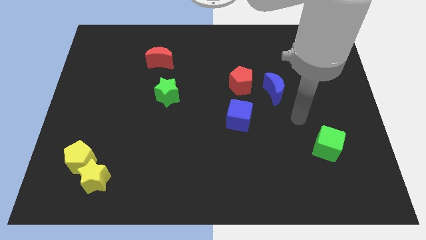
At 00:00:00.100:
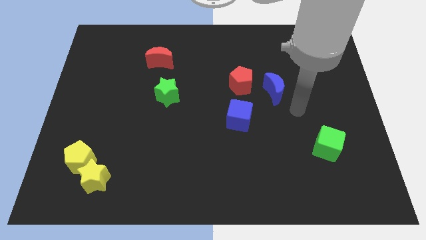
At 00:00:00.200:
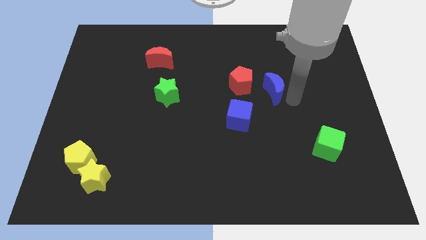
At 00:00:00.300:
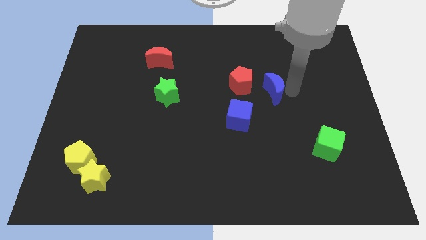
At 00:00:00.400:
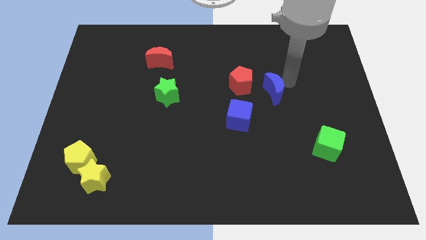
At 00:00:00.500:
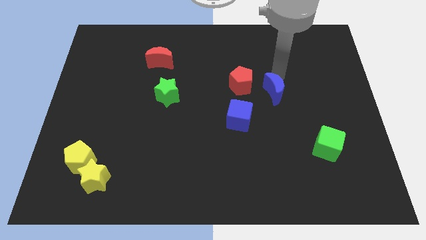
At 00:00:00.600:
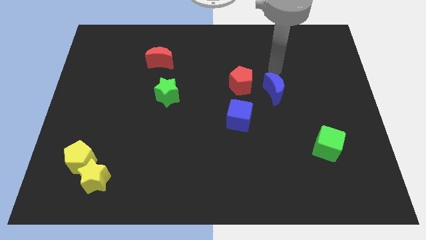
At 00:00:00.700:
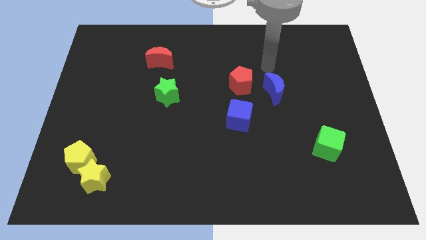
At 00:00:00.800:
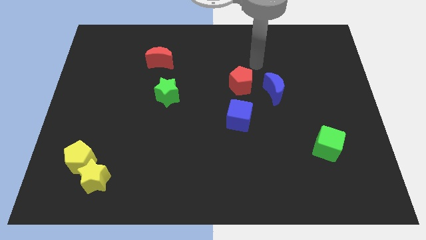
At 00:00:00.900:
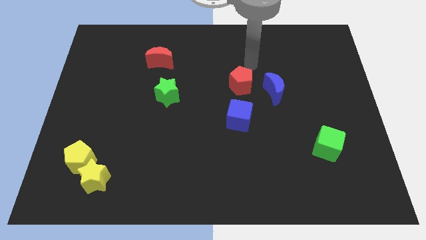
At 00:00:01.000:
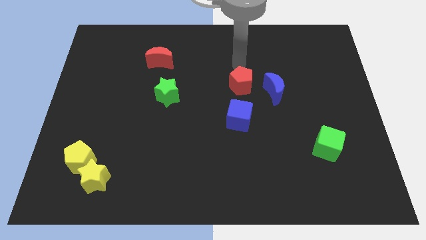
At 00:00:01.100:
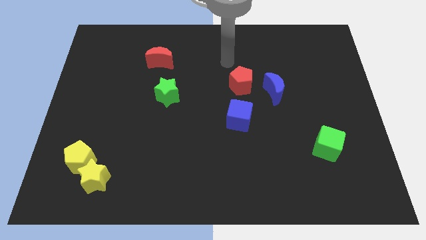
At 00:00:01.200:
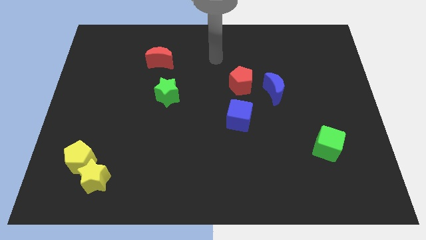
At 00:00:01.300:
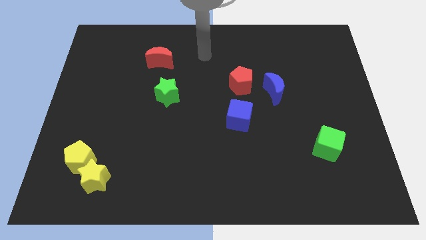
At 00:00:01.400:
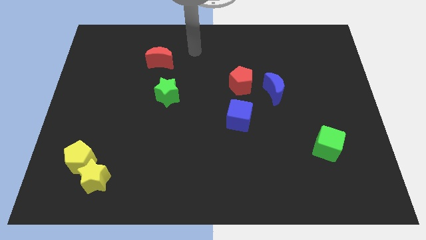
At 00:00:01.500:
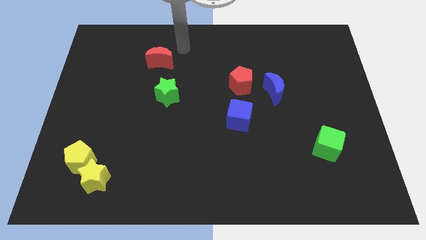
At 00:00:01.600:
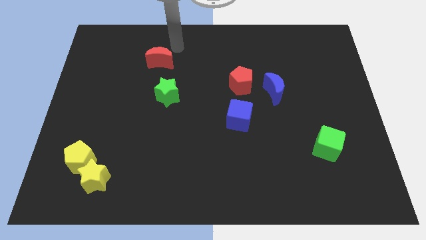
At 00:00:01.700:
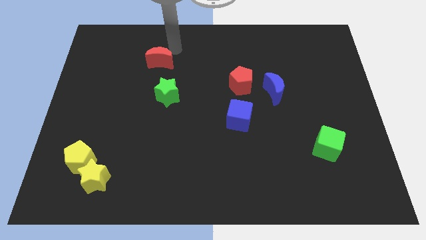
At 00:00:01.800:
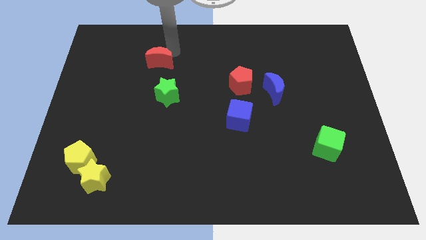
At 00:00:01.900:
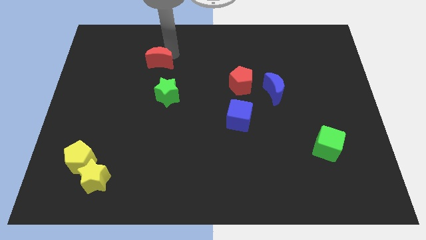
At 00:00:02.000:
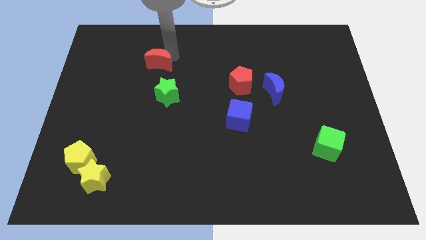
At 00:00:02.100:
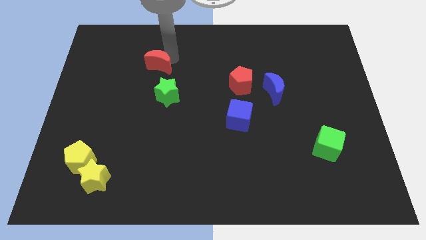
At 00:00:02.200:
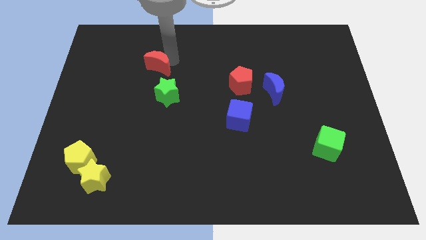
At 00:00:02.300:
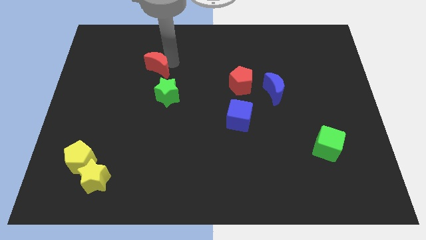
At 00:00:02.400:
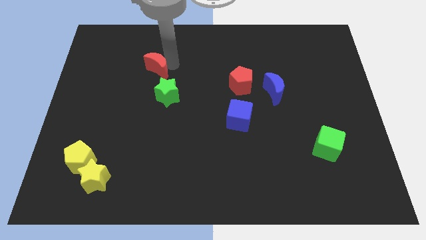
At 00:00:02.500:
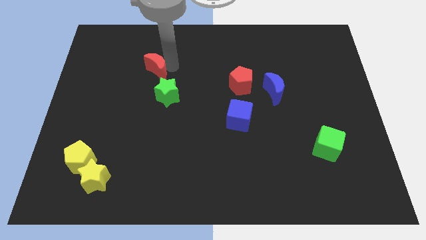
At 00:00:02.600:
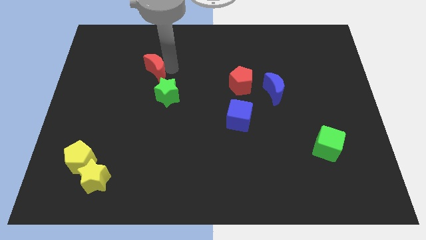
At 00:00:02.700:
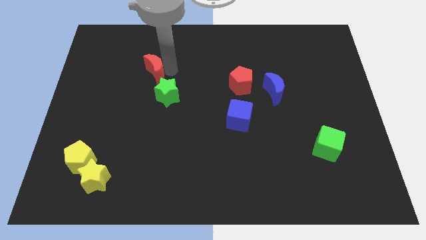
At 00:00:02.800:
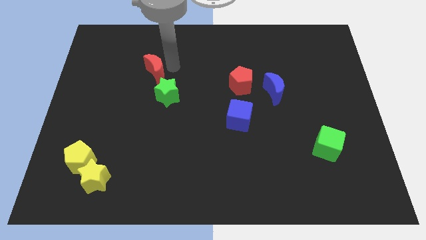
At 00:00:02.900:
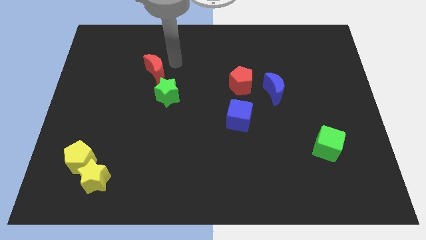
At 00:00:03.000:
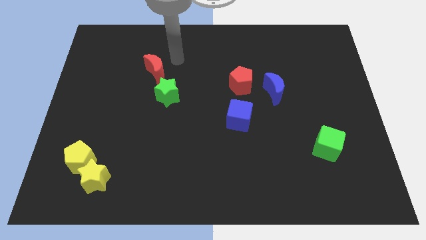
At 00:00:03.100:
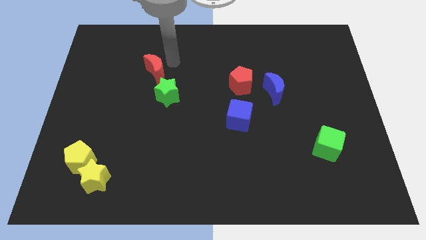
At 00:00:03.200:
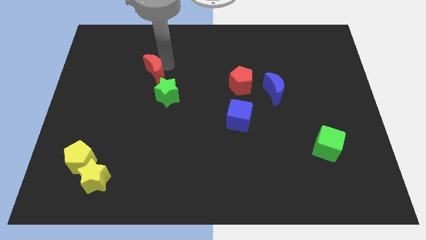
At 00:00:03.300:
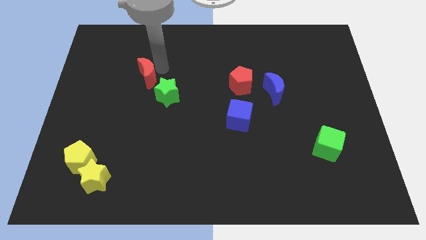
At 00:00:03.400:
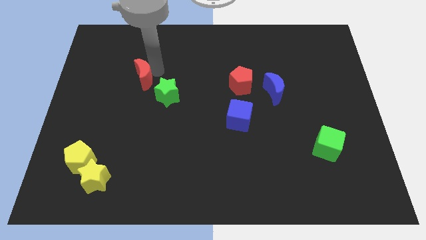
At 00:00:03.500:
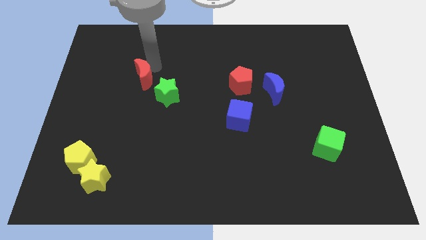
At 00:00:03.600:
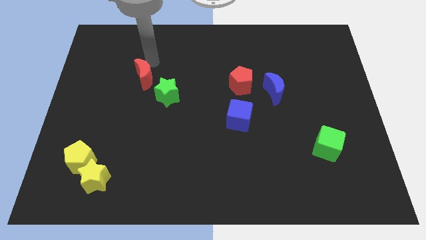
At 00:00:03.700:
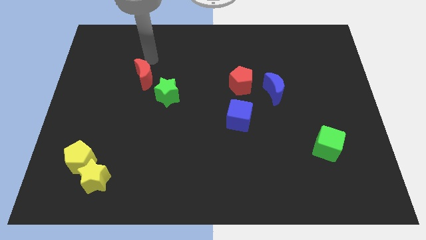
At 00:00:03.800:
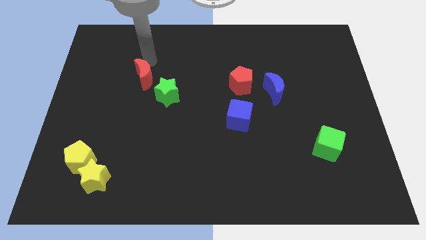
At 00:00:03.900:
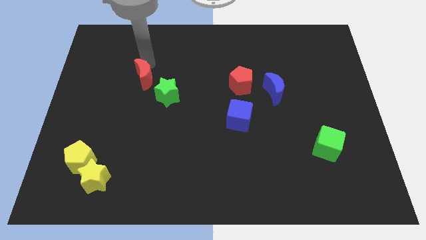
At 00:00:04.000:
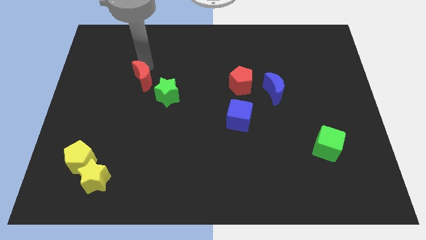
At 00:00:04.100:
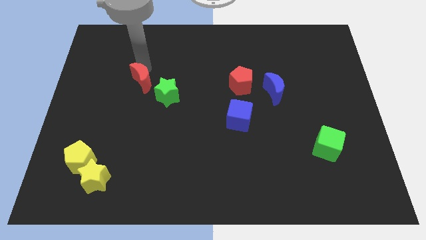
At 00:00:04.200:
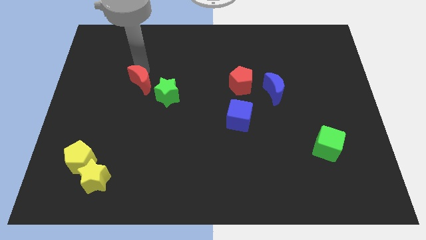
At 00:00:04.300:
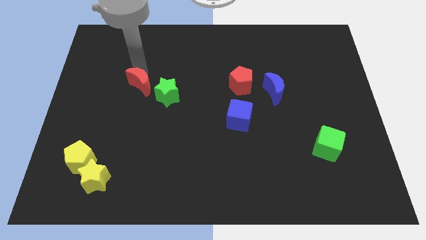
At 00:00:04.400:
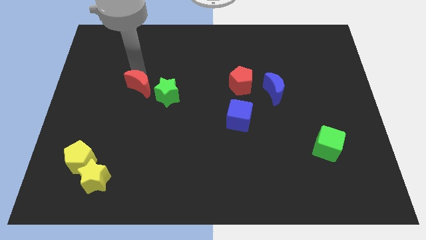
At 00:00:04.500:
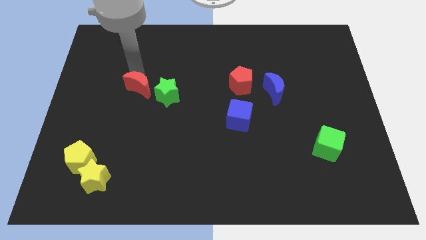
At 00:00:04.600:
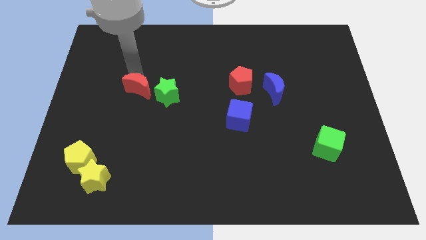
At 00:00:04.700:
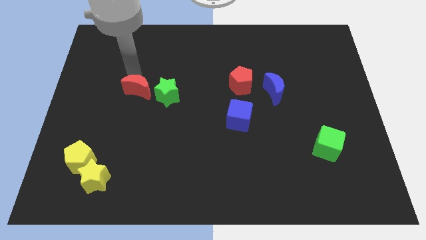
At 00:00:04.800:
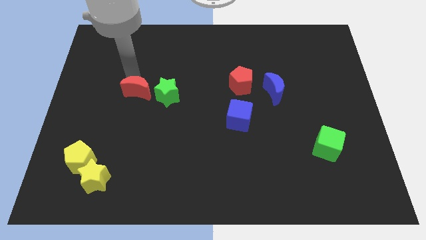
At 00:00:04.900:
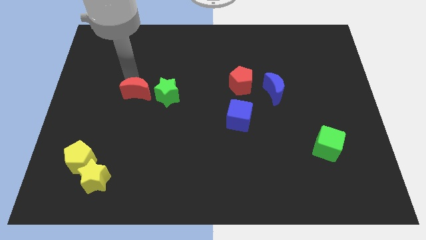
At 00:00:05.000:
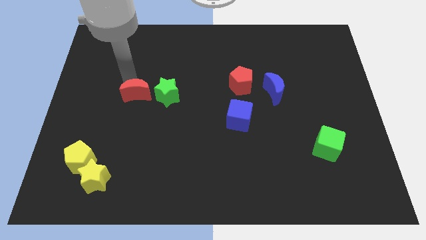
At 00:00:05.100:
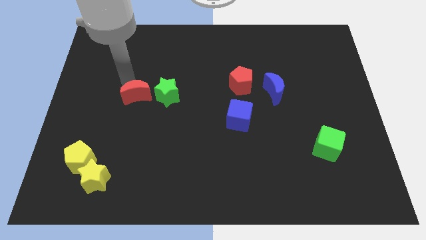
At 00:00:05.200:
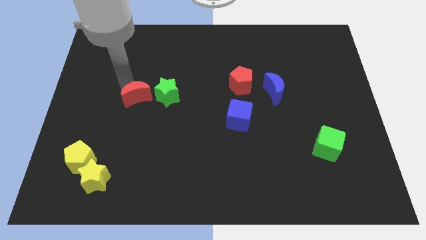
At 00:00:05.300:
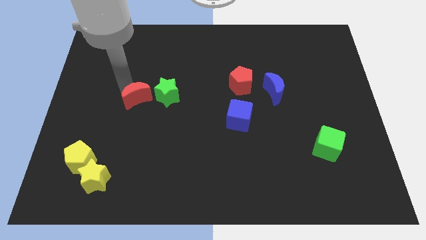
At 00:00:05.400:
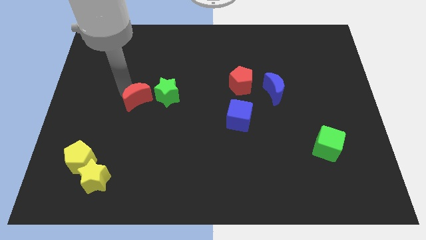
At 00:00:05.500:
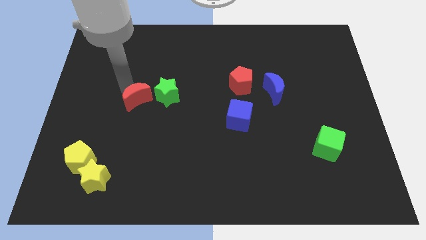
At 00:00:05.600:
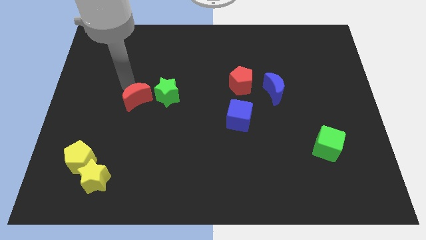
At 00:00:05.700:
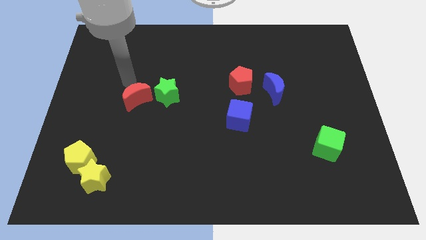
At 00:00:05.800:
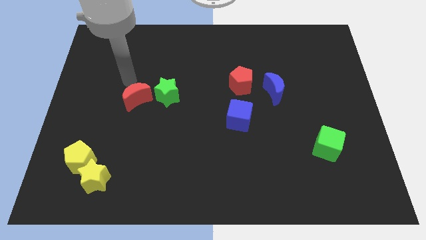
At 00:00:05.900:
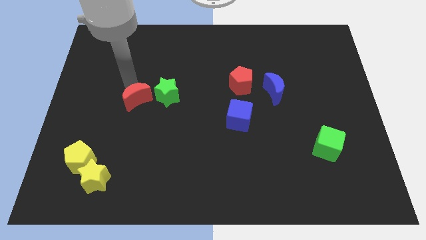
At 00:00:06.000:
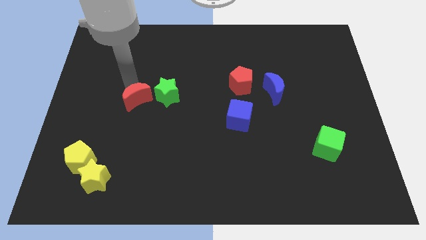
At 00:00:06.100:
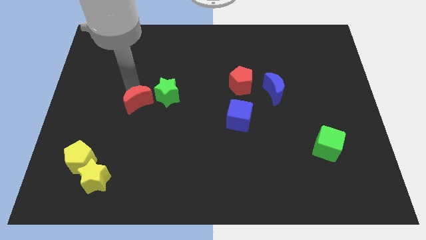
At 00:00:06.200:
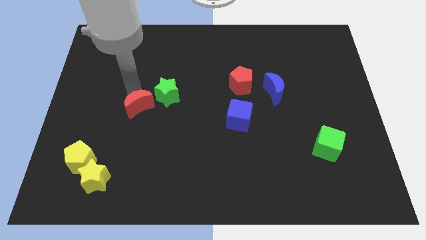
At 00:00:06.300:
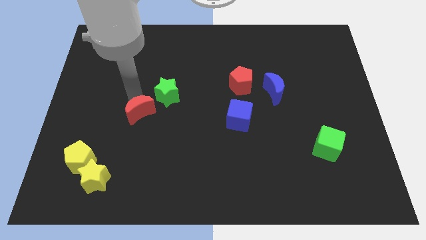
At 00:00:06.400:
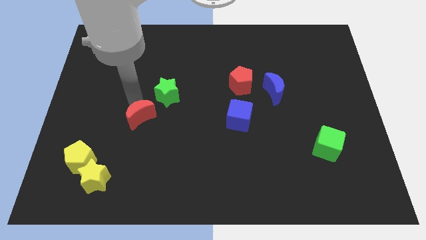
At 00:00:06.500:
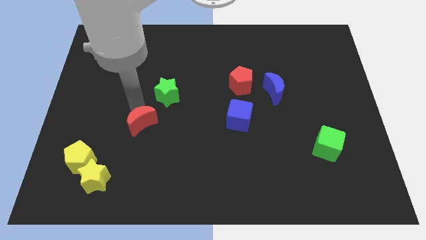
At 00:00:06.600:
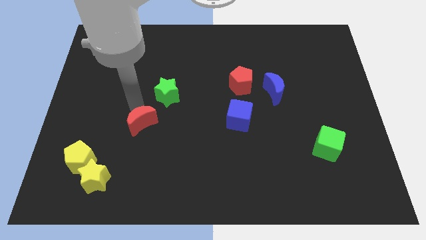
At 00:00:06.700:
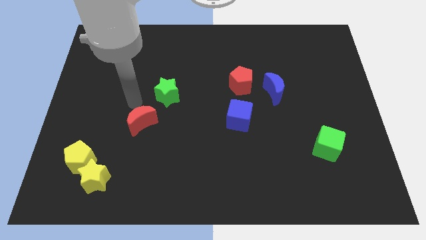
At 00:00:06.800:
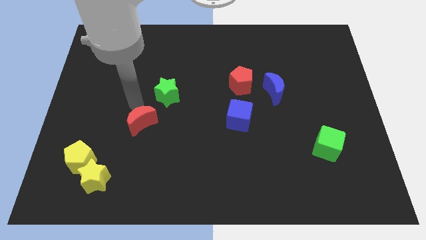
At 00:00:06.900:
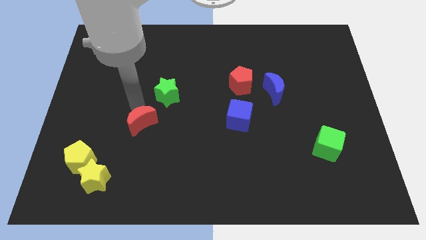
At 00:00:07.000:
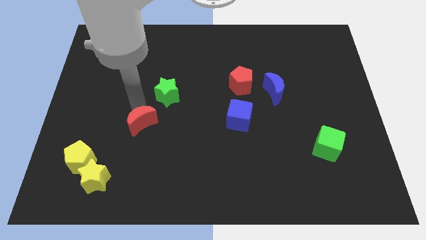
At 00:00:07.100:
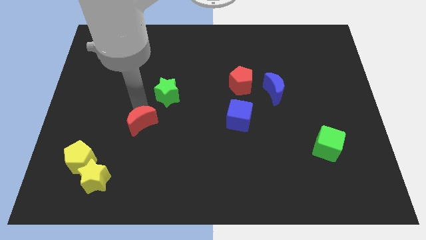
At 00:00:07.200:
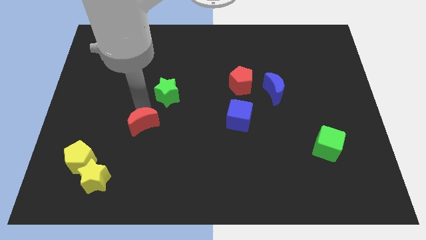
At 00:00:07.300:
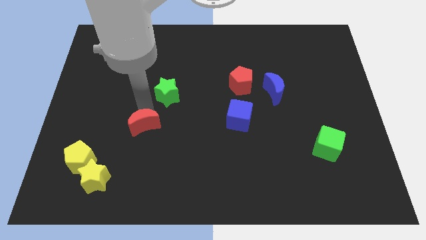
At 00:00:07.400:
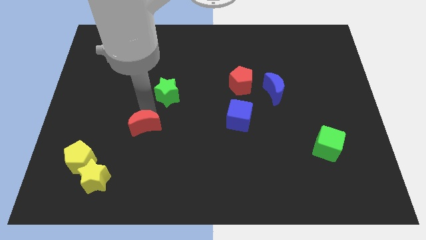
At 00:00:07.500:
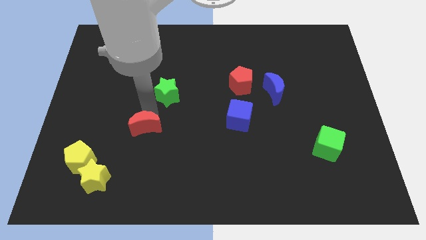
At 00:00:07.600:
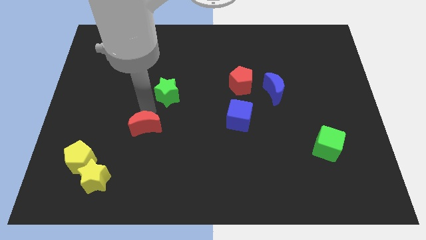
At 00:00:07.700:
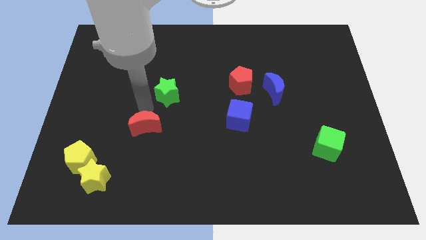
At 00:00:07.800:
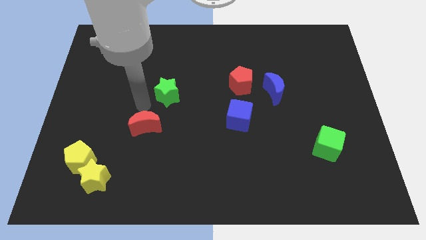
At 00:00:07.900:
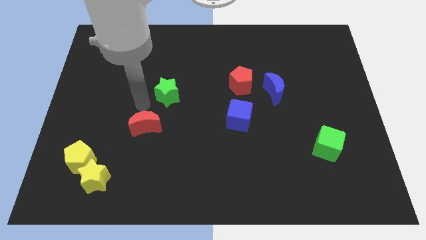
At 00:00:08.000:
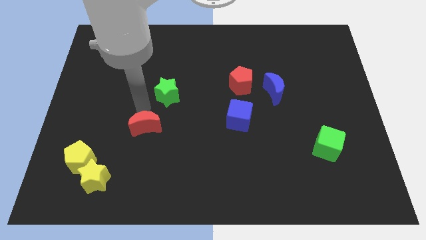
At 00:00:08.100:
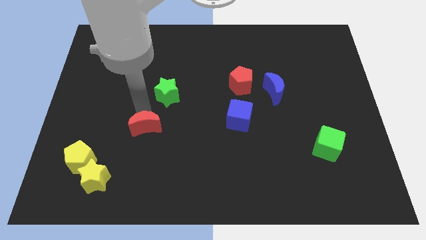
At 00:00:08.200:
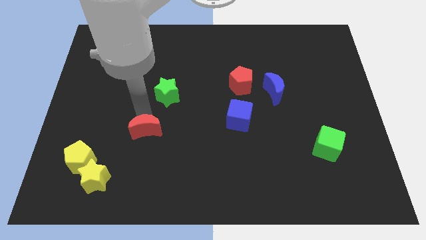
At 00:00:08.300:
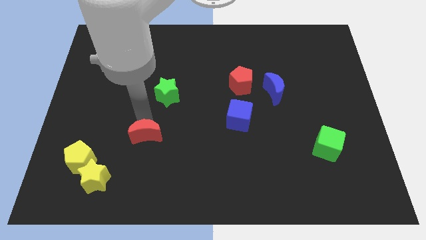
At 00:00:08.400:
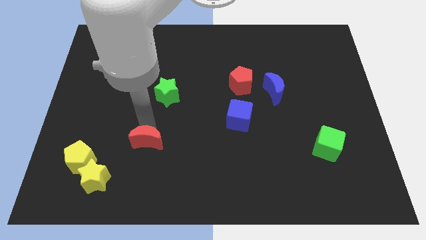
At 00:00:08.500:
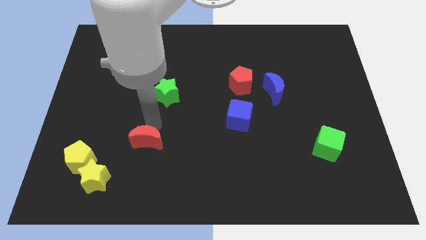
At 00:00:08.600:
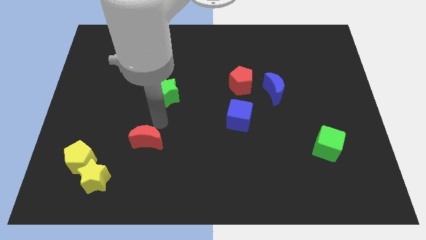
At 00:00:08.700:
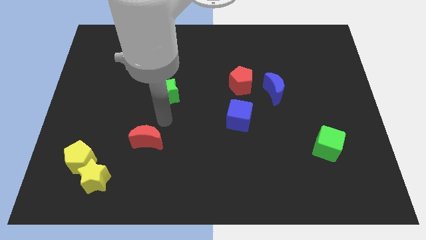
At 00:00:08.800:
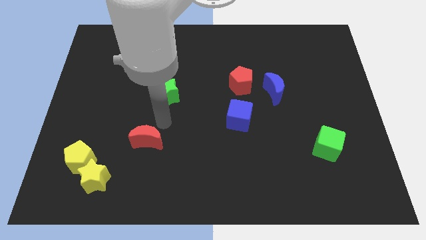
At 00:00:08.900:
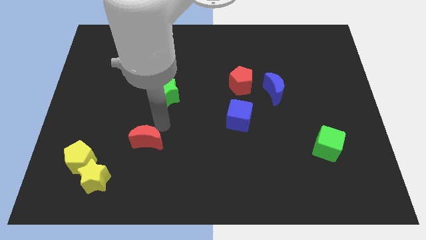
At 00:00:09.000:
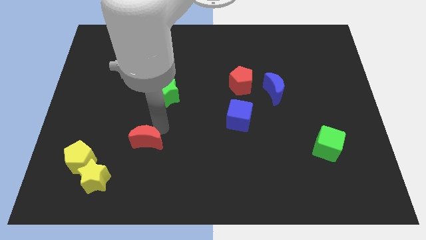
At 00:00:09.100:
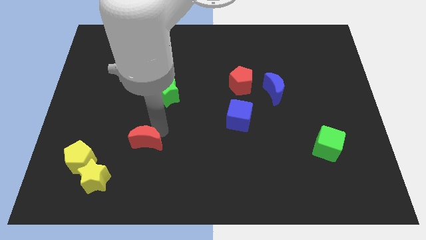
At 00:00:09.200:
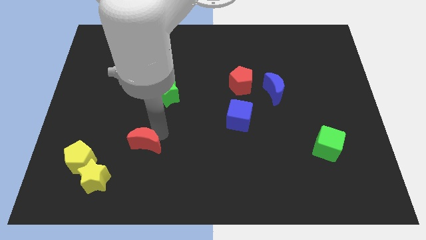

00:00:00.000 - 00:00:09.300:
put the red moon to the right side of the yellow pentagon
